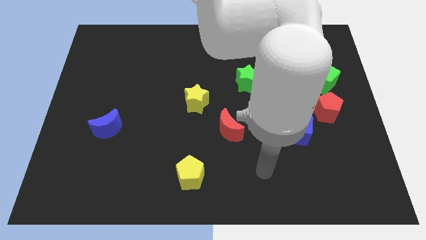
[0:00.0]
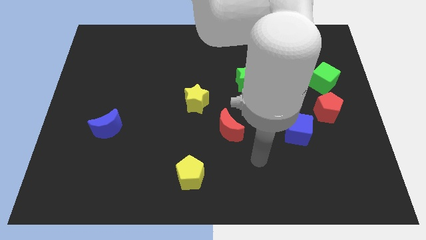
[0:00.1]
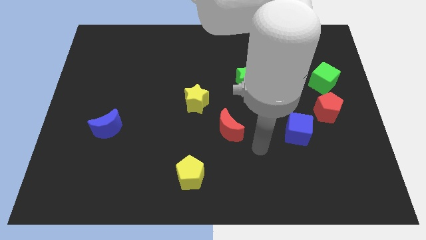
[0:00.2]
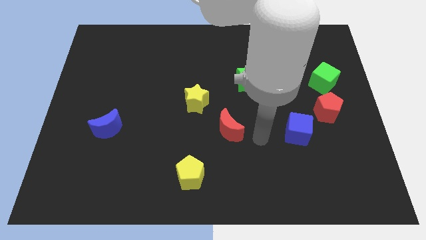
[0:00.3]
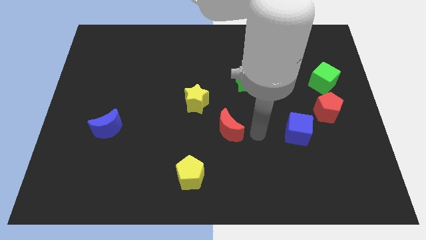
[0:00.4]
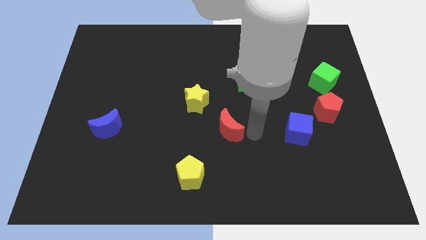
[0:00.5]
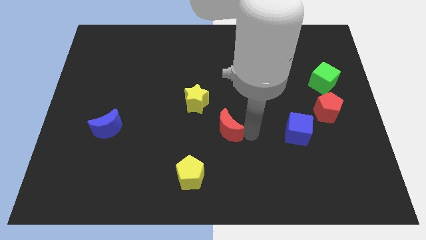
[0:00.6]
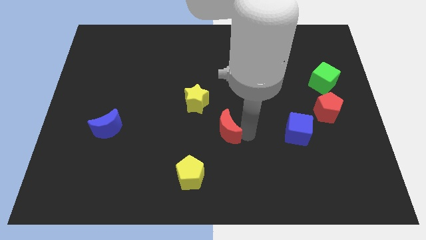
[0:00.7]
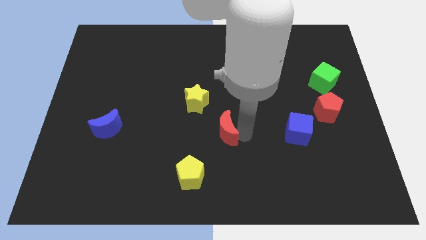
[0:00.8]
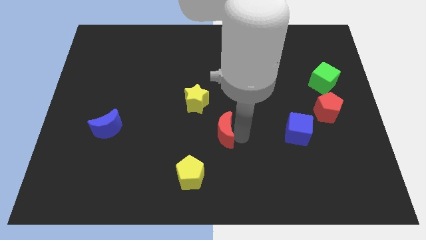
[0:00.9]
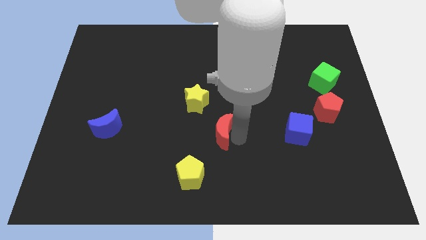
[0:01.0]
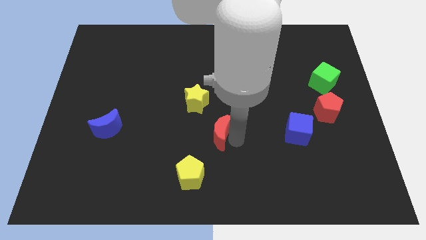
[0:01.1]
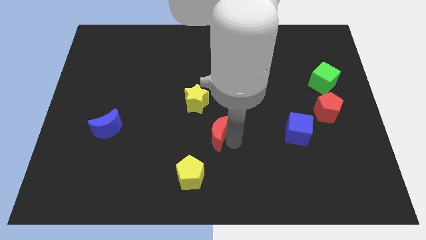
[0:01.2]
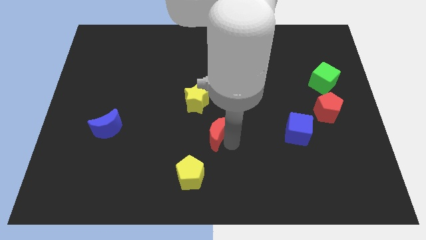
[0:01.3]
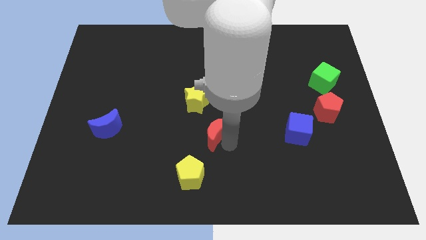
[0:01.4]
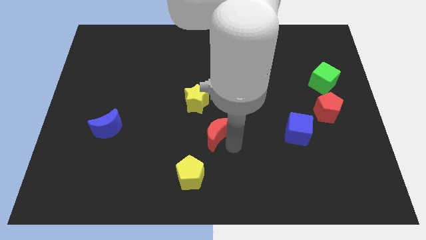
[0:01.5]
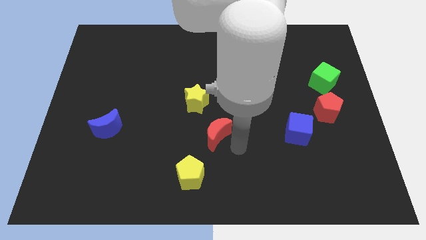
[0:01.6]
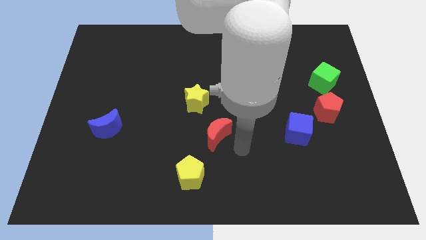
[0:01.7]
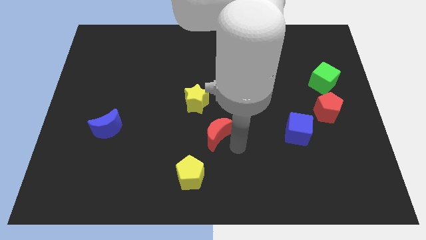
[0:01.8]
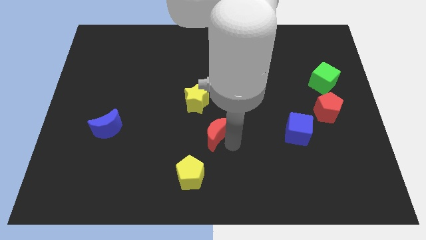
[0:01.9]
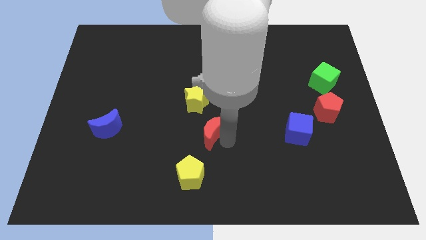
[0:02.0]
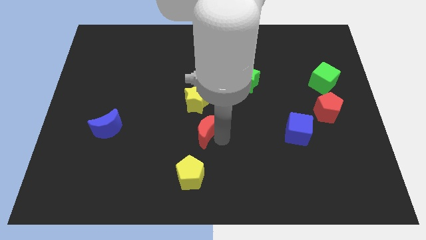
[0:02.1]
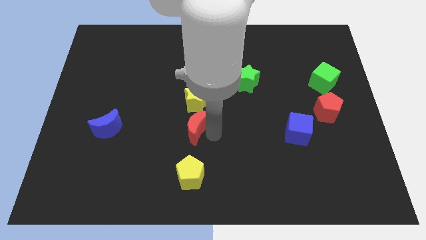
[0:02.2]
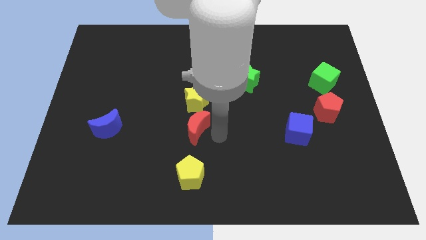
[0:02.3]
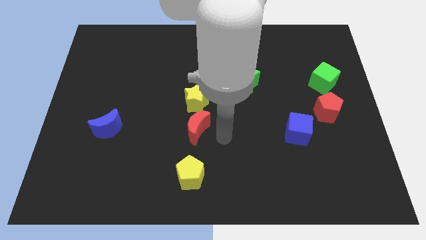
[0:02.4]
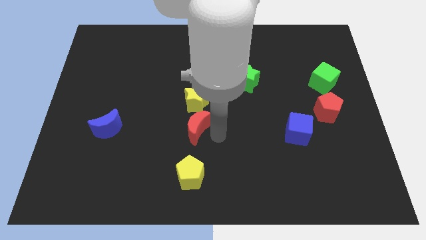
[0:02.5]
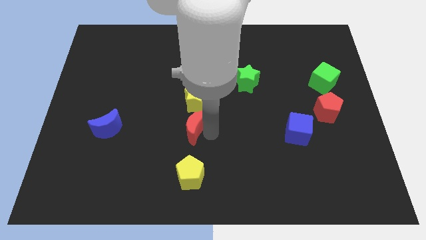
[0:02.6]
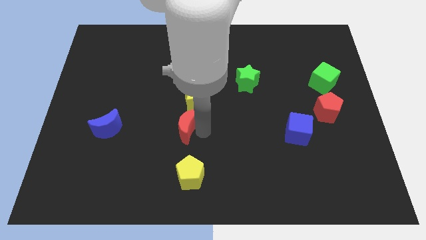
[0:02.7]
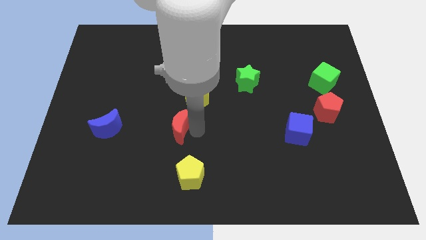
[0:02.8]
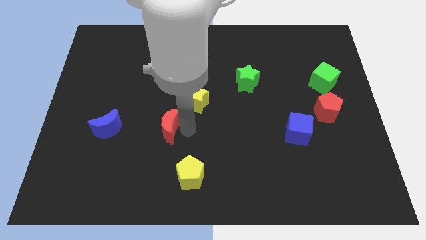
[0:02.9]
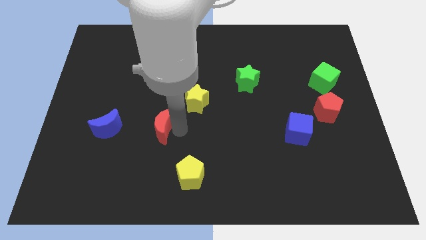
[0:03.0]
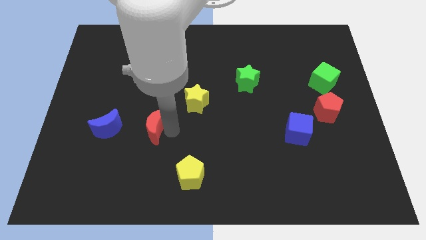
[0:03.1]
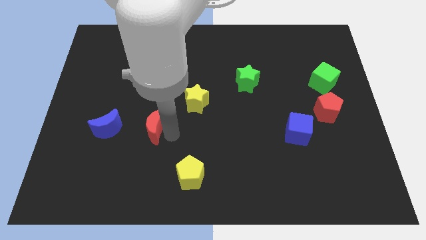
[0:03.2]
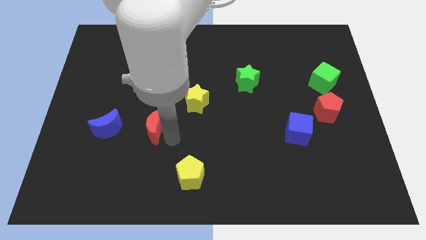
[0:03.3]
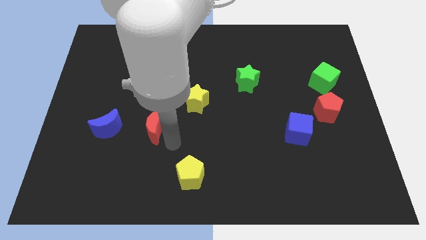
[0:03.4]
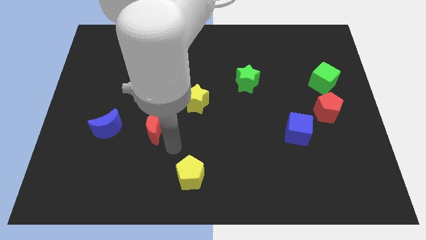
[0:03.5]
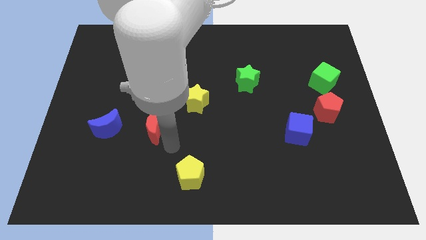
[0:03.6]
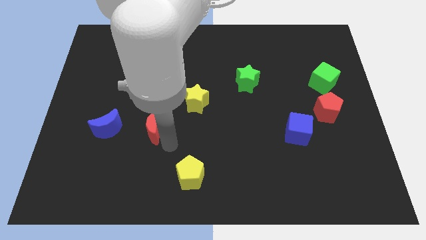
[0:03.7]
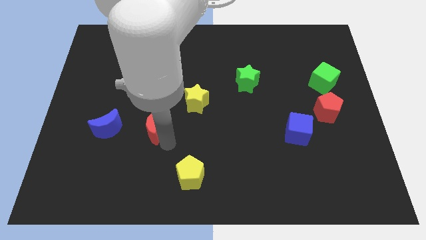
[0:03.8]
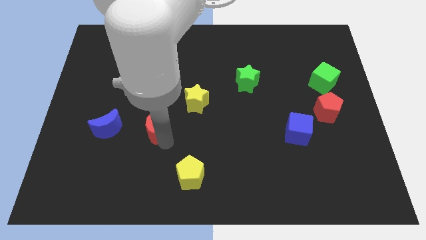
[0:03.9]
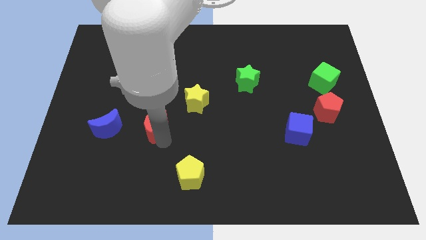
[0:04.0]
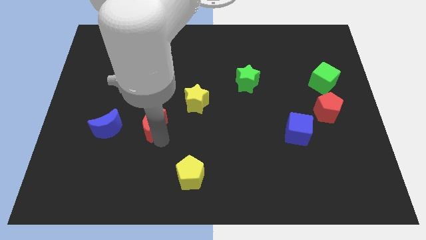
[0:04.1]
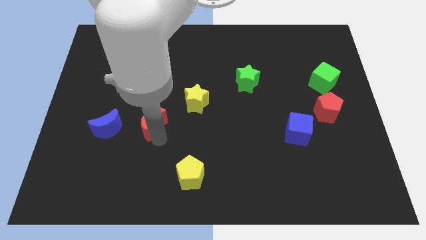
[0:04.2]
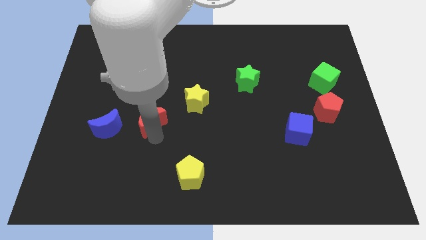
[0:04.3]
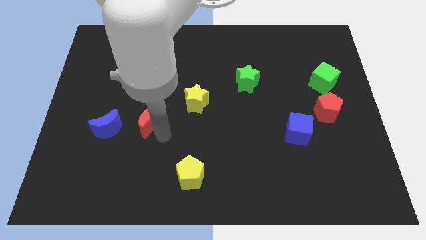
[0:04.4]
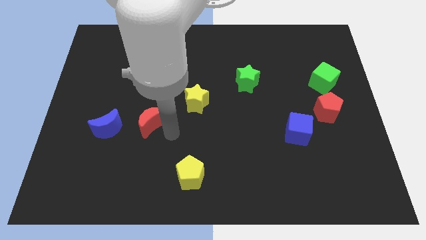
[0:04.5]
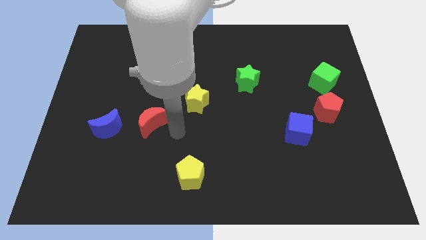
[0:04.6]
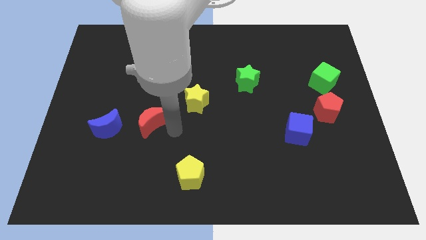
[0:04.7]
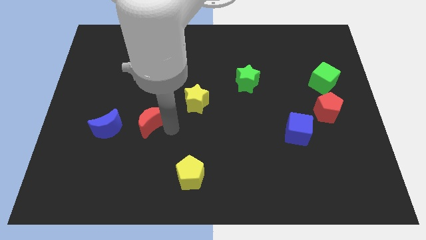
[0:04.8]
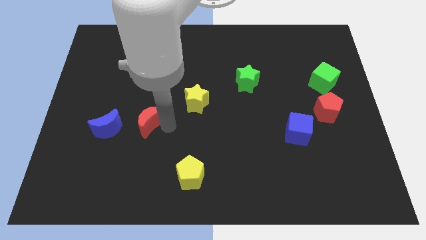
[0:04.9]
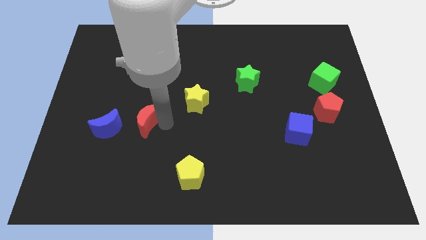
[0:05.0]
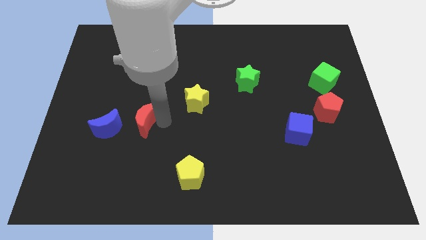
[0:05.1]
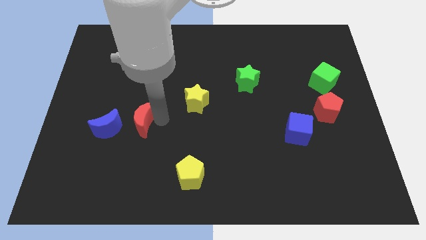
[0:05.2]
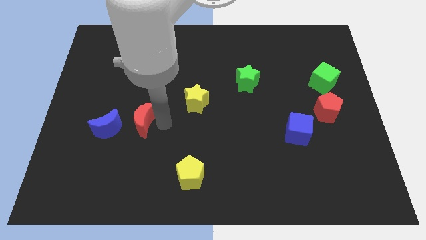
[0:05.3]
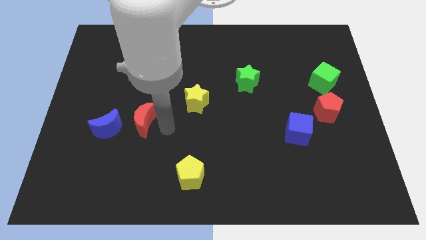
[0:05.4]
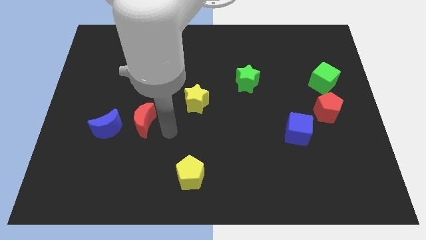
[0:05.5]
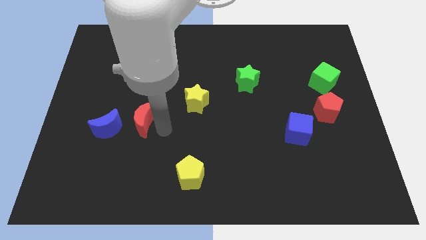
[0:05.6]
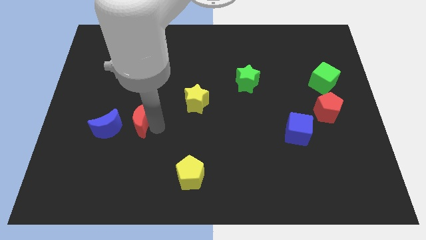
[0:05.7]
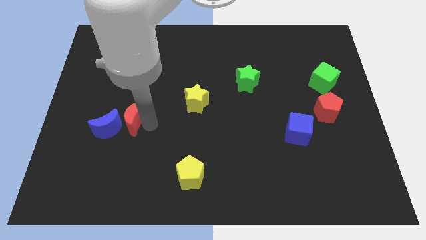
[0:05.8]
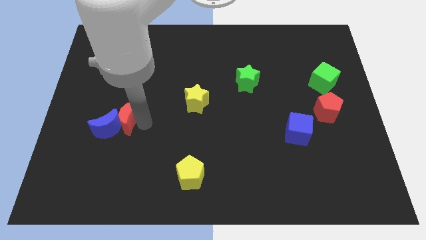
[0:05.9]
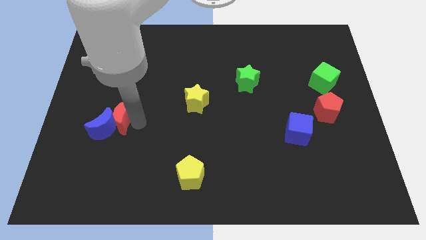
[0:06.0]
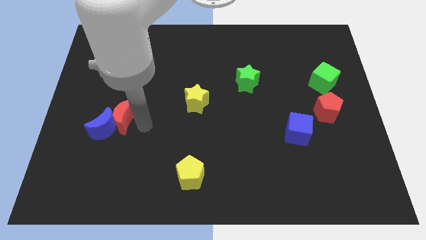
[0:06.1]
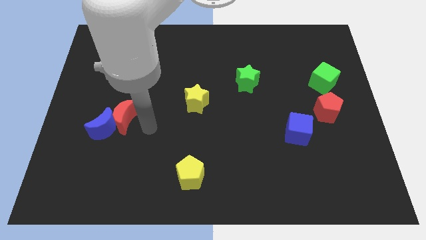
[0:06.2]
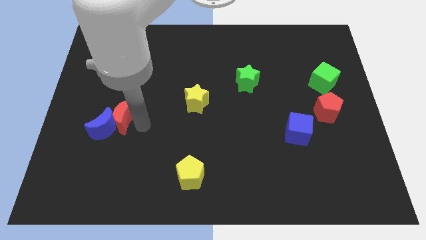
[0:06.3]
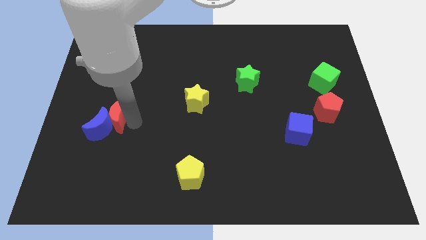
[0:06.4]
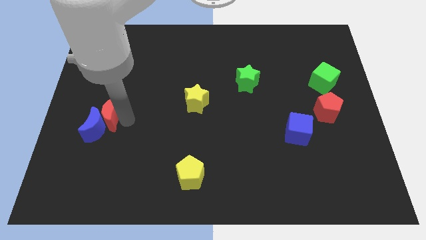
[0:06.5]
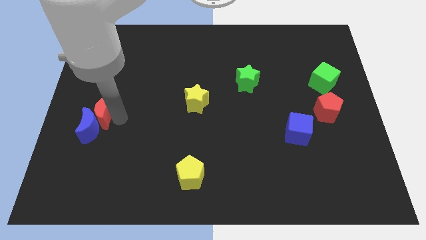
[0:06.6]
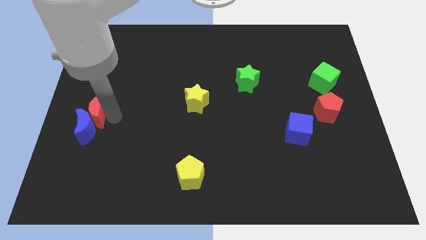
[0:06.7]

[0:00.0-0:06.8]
slide the red moon to the left side
